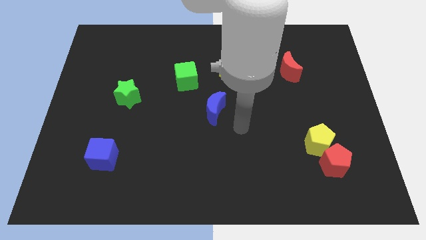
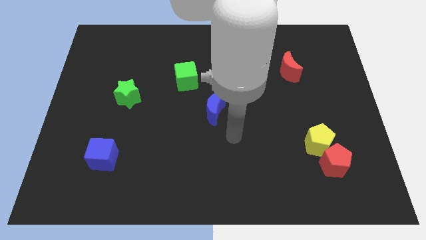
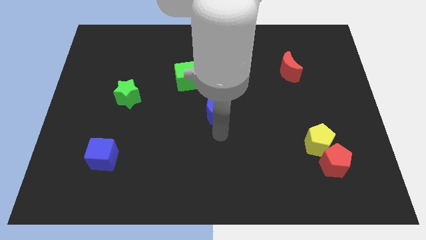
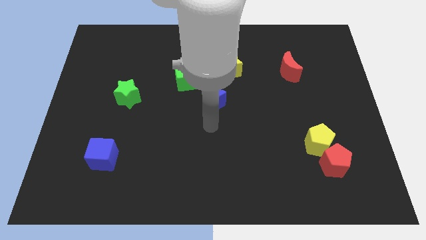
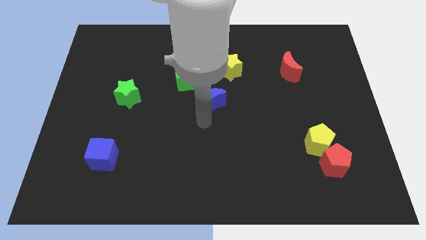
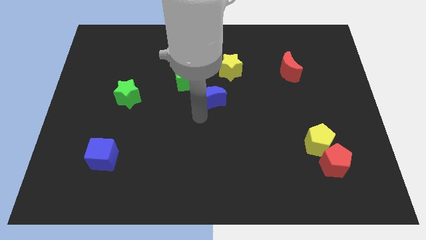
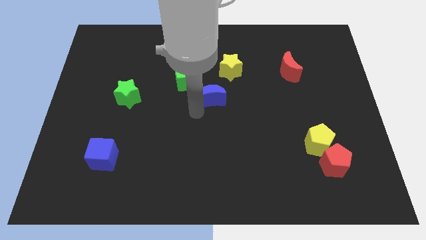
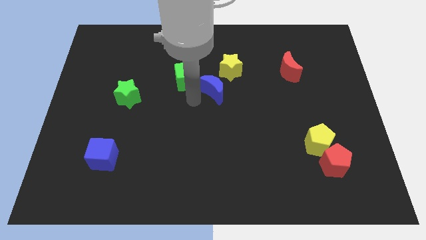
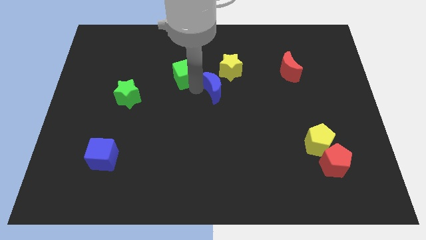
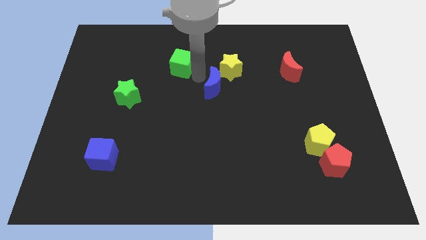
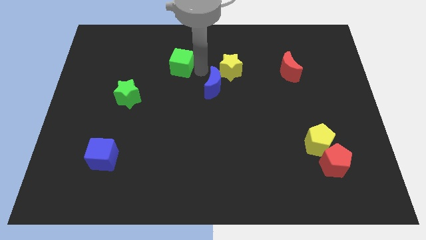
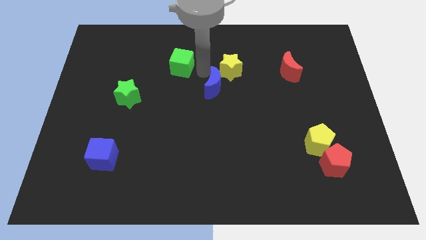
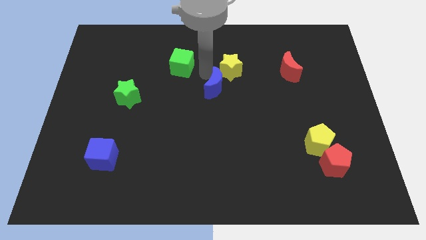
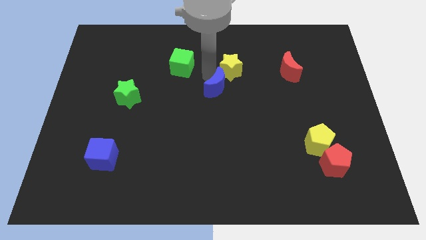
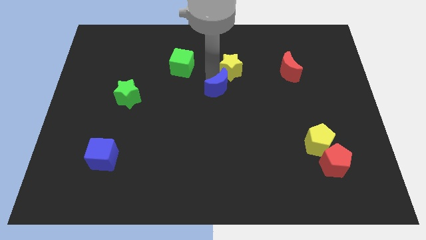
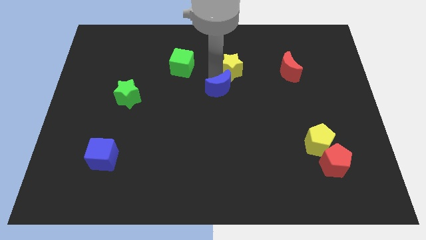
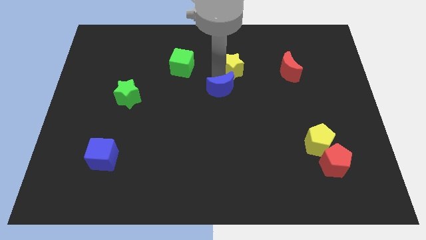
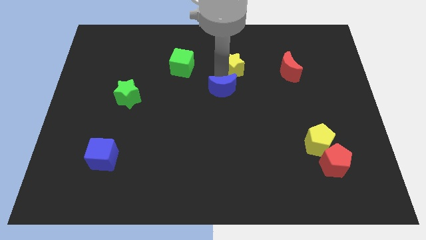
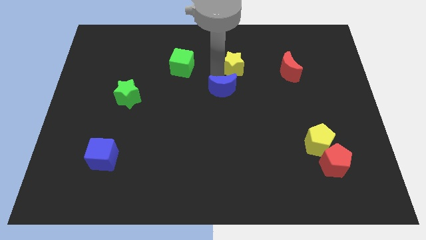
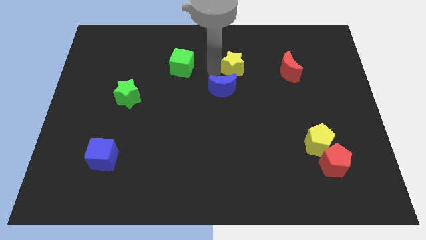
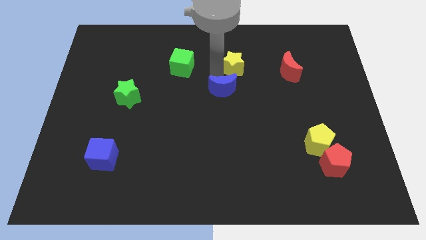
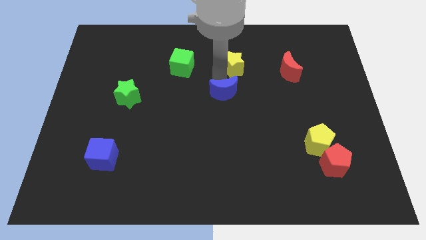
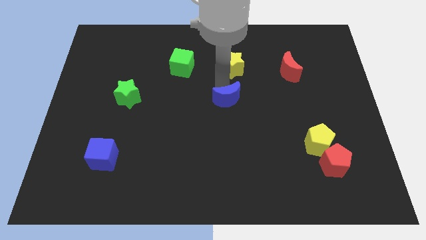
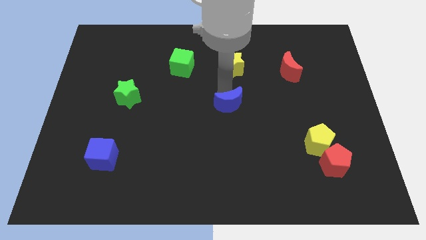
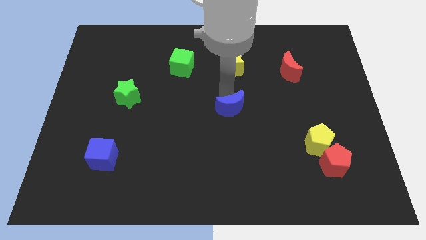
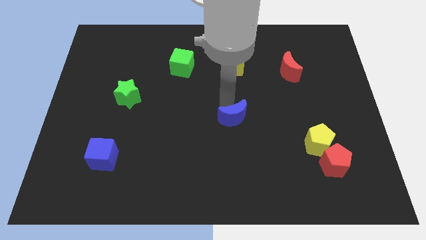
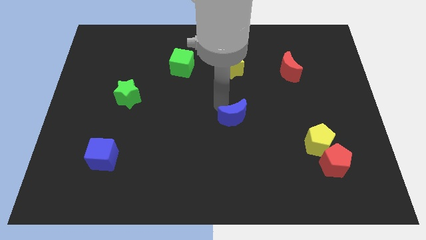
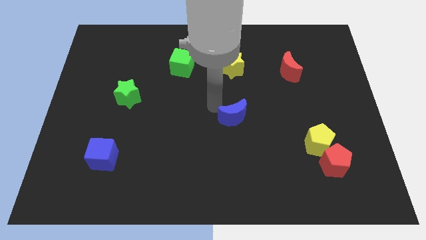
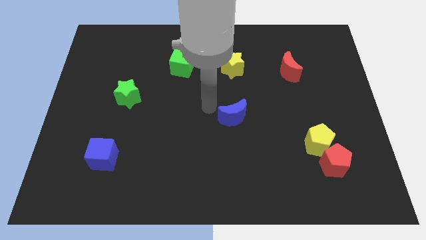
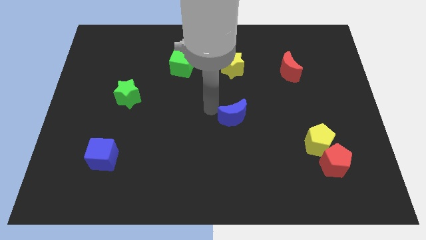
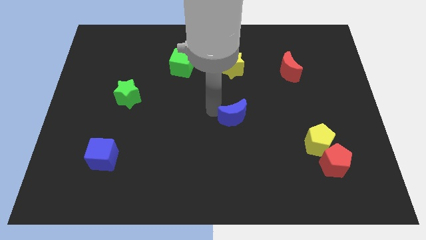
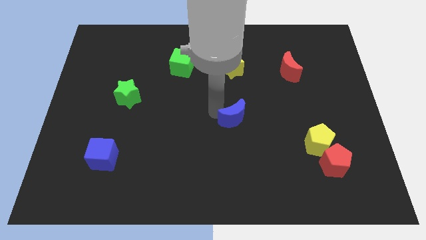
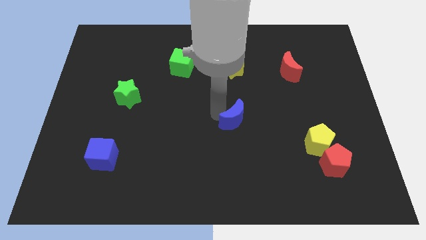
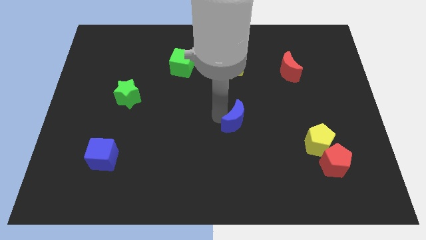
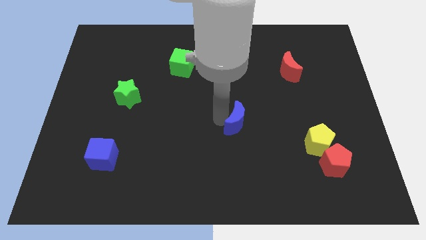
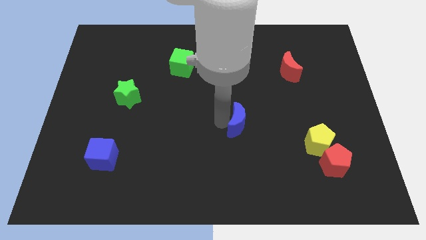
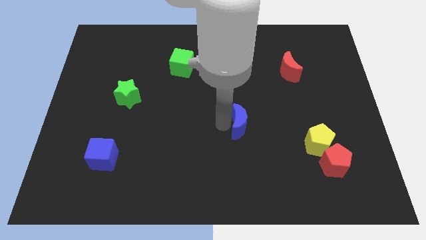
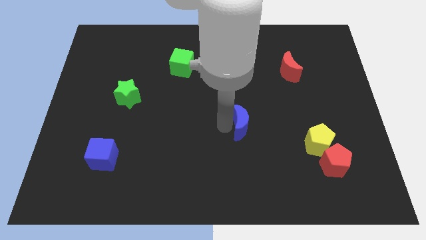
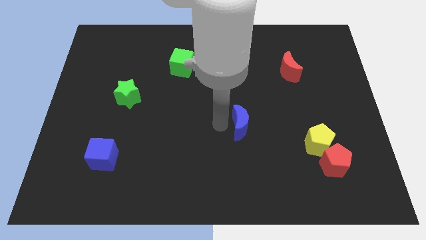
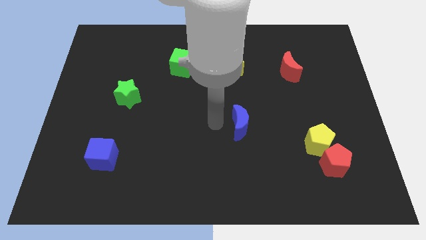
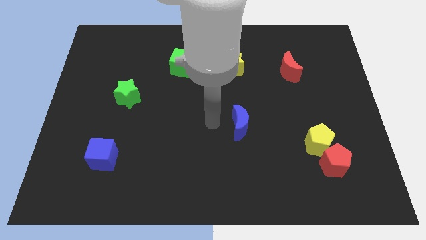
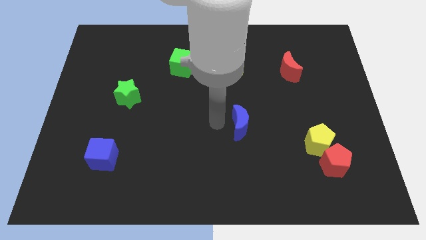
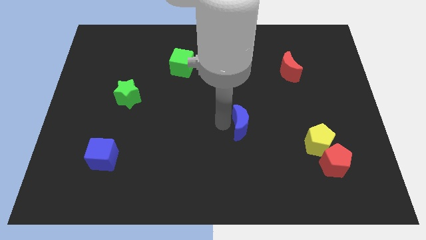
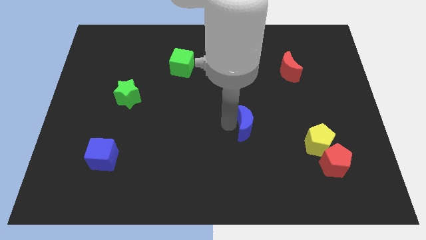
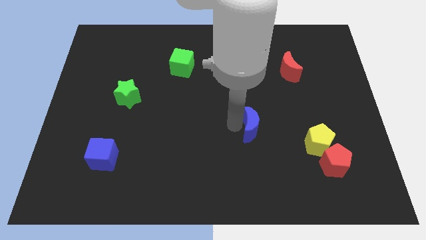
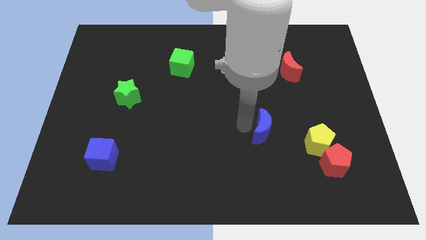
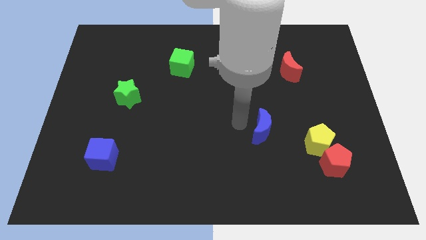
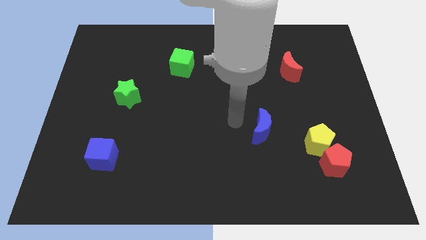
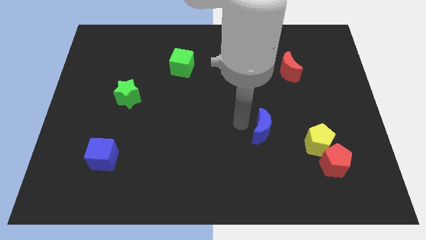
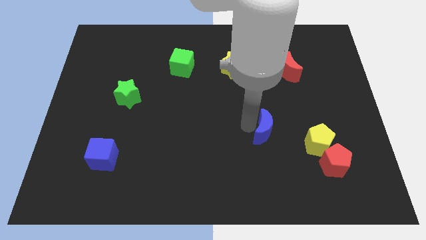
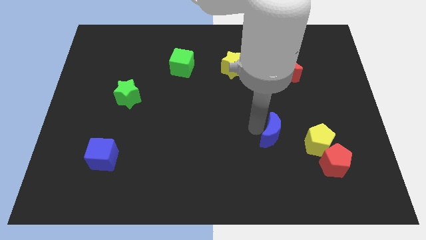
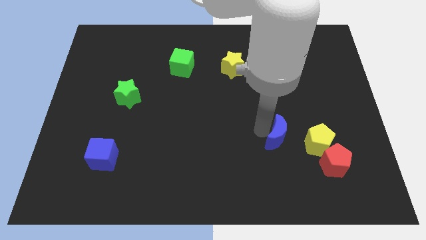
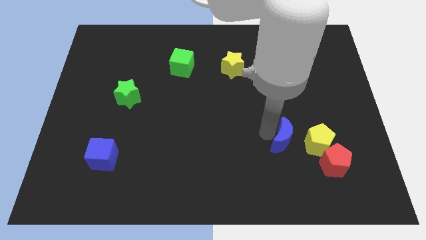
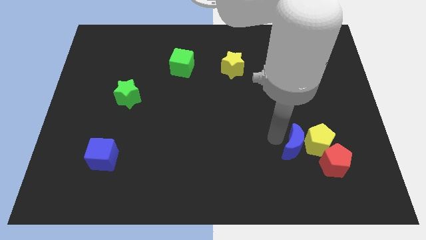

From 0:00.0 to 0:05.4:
slide the blue moon towards the yellow pentagon

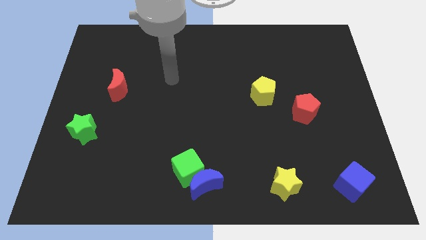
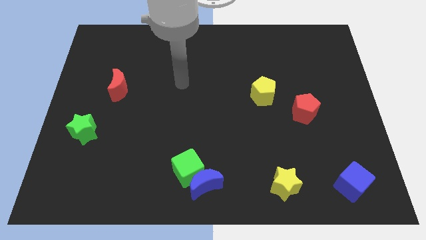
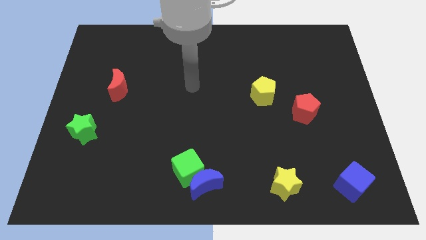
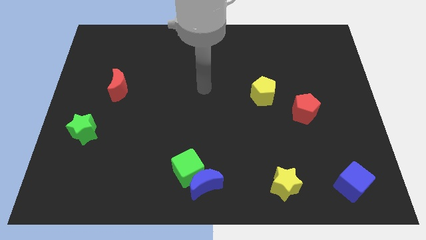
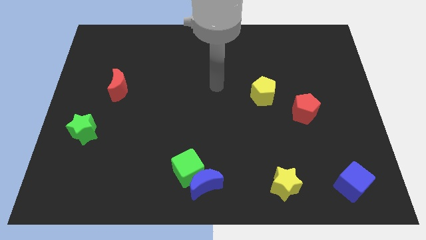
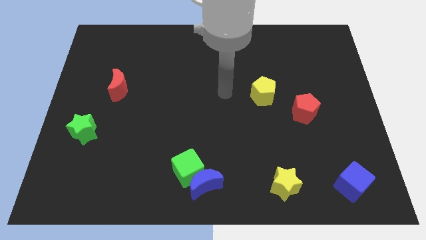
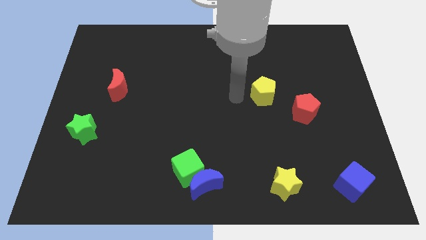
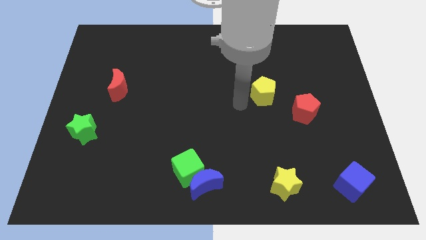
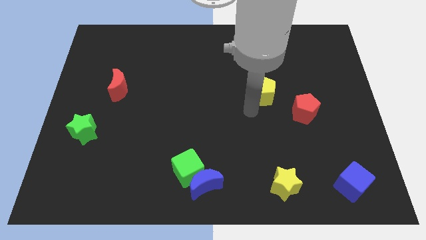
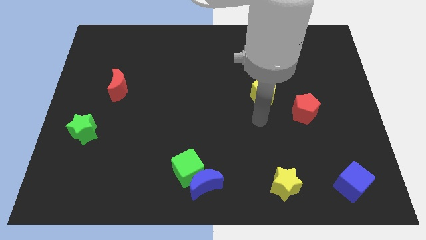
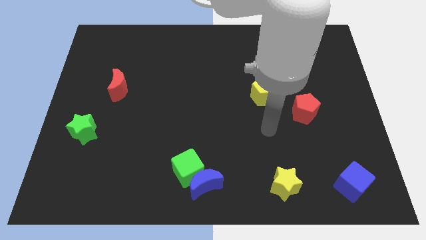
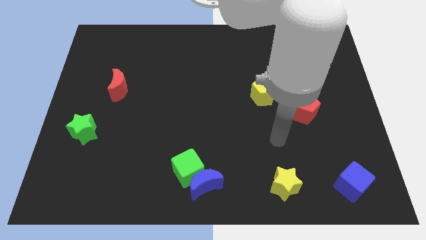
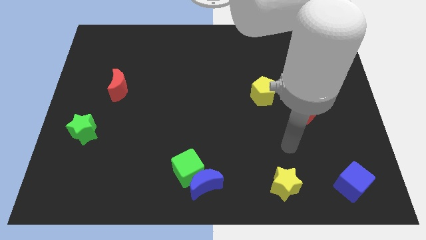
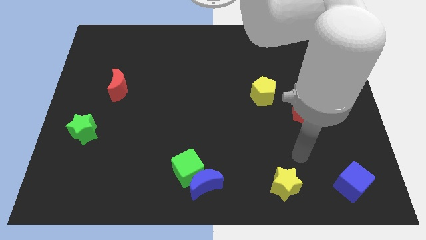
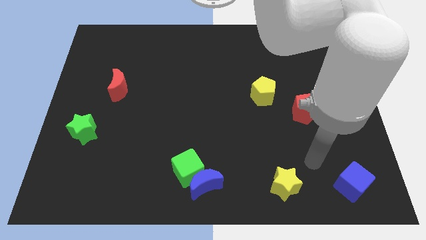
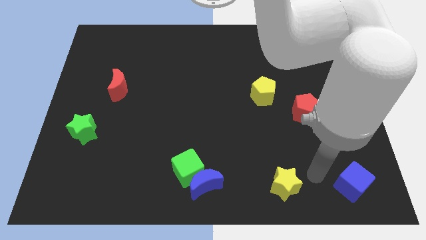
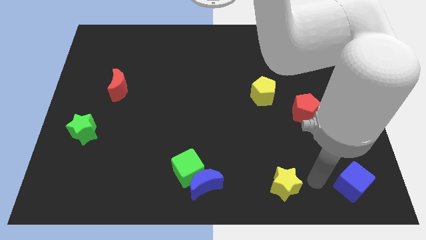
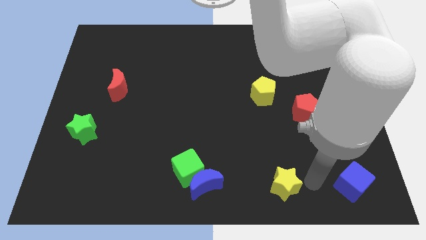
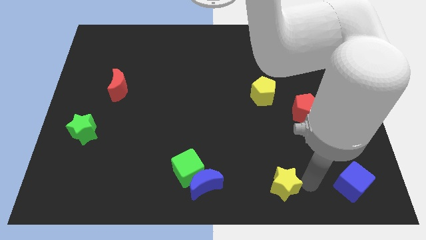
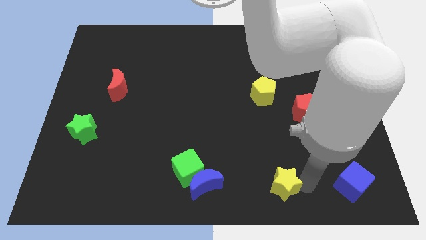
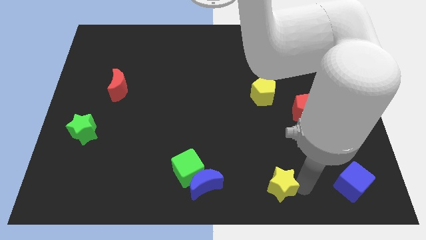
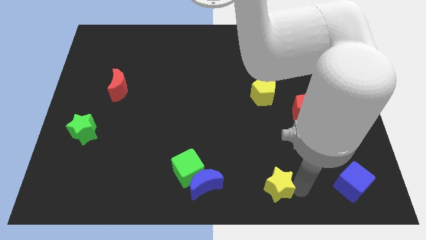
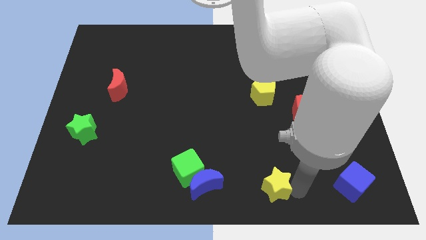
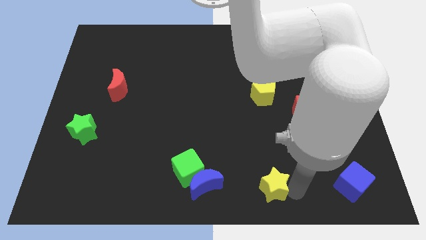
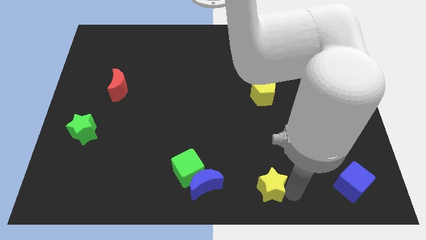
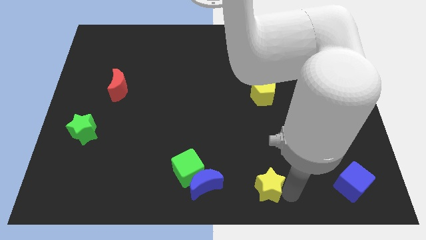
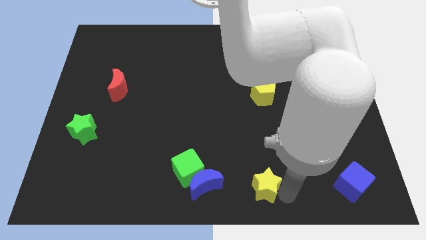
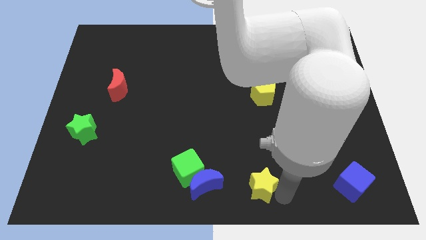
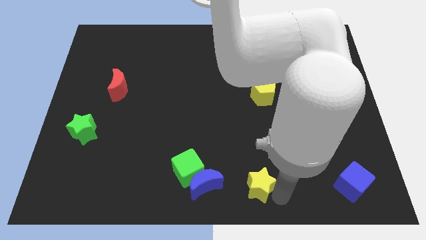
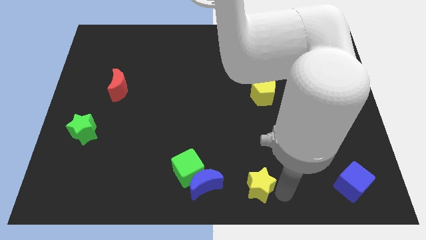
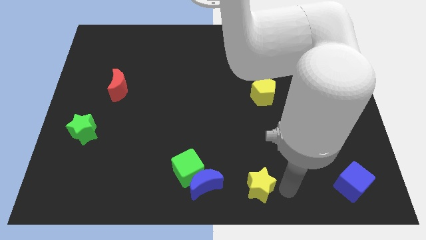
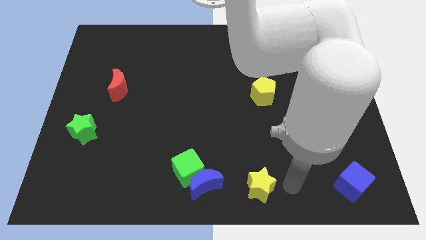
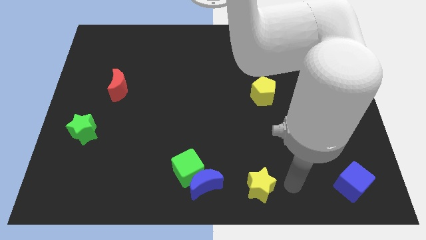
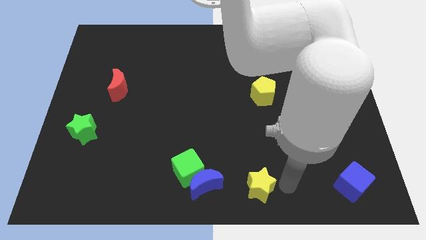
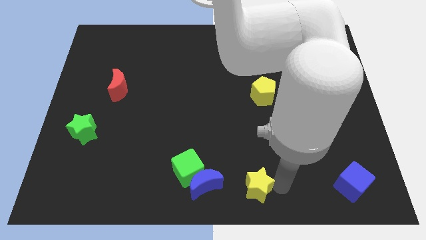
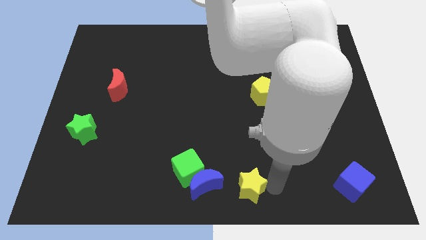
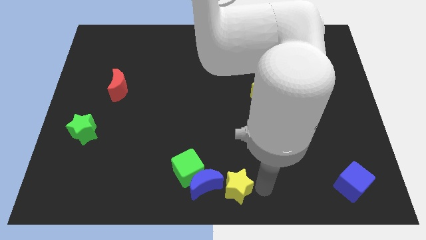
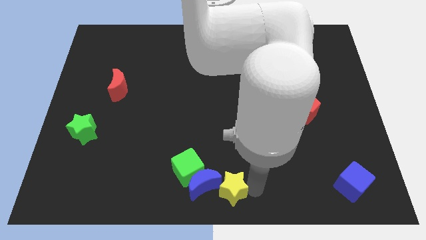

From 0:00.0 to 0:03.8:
slide the yellow star next to the blue moon
